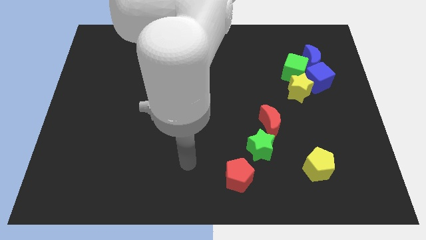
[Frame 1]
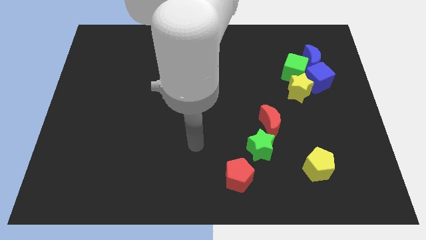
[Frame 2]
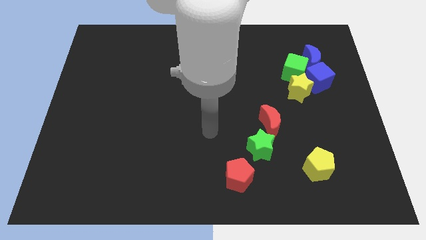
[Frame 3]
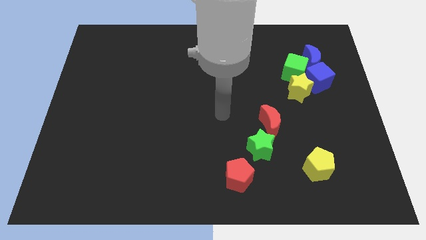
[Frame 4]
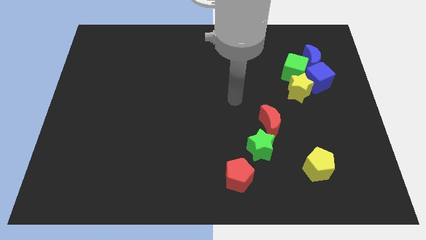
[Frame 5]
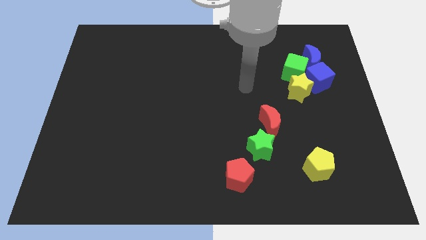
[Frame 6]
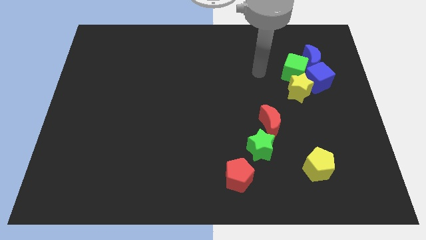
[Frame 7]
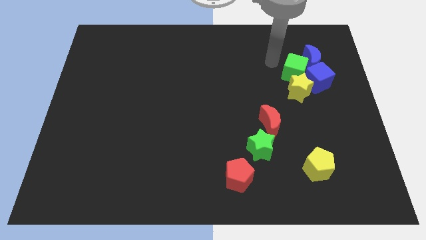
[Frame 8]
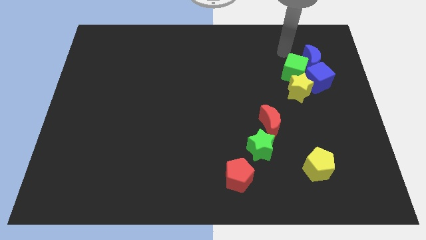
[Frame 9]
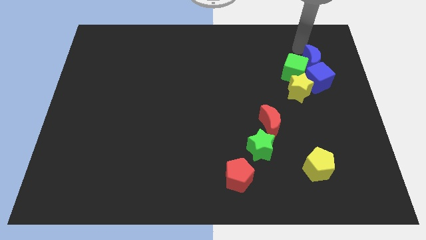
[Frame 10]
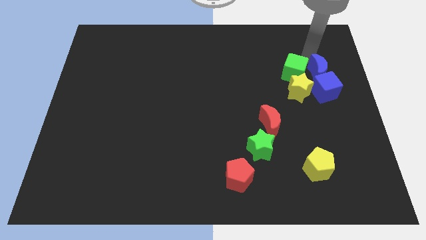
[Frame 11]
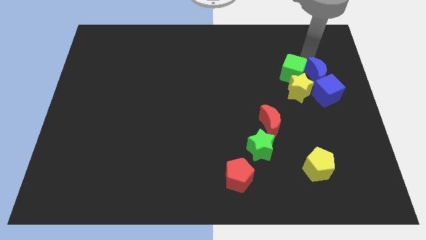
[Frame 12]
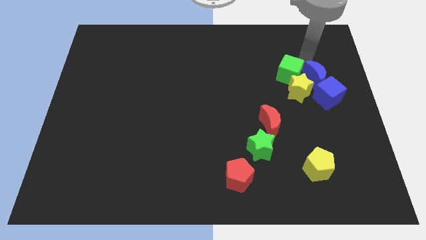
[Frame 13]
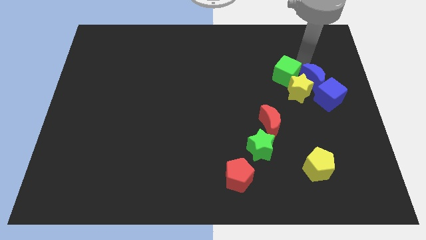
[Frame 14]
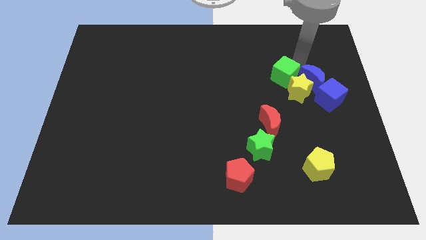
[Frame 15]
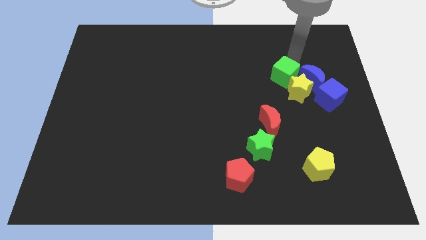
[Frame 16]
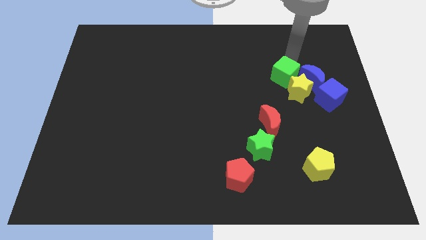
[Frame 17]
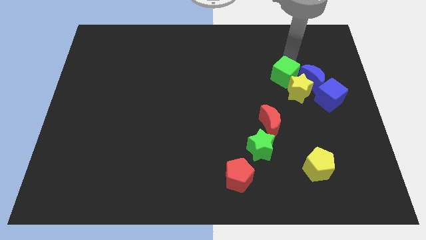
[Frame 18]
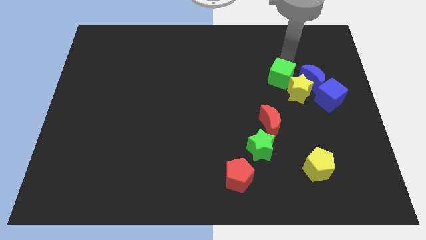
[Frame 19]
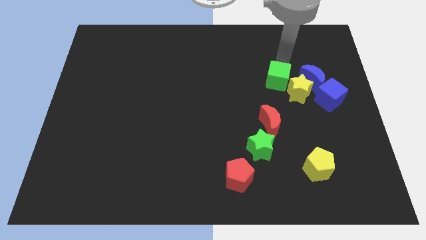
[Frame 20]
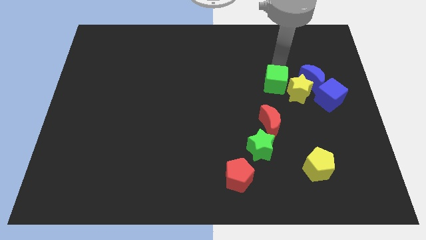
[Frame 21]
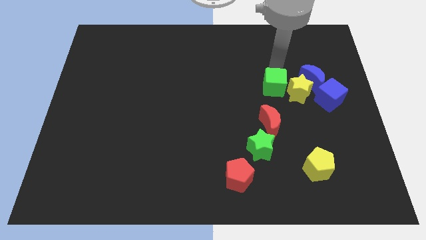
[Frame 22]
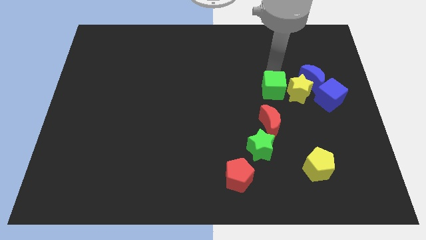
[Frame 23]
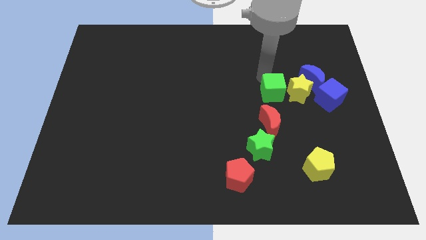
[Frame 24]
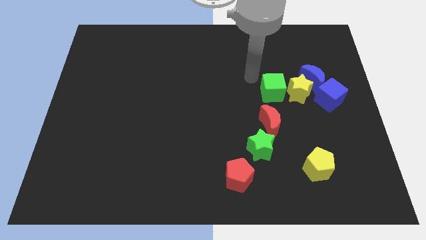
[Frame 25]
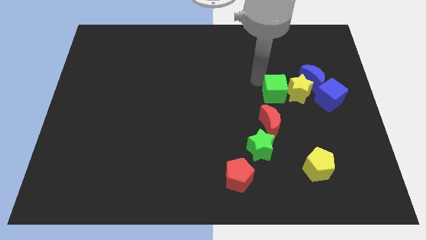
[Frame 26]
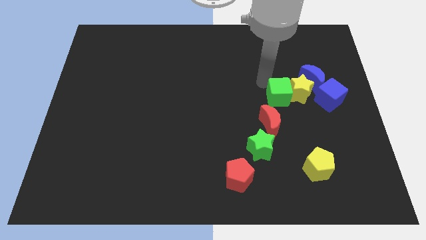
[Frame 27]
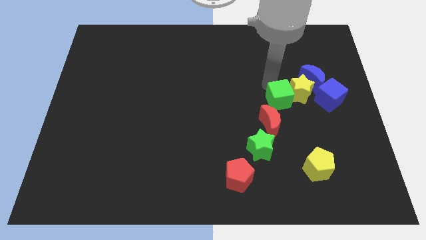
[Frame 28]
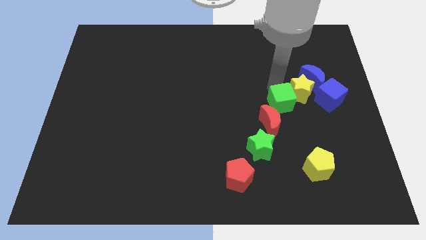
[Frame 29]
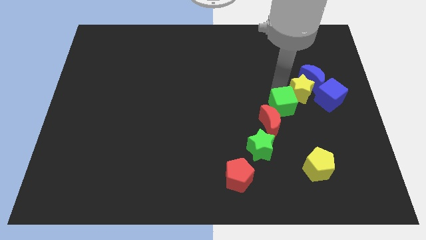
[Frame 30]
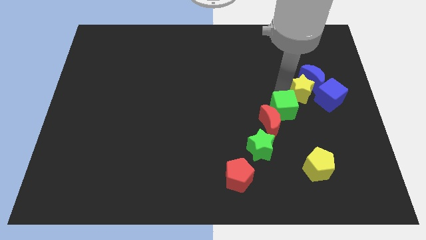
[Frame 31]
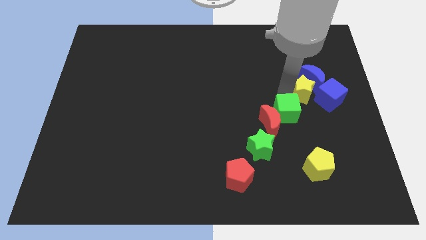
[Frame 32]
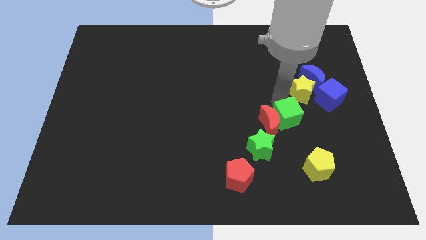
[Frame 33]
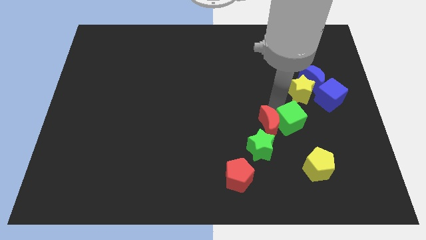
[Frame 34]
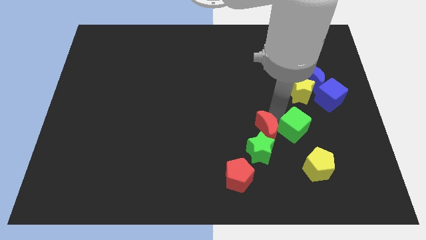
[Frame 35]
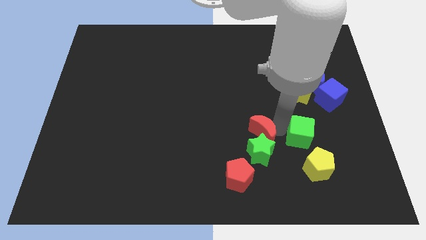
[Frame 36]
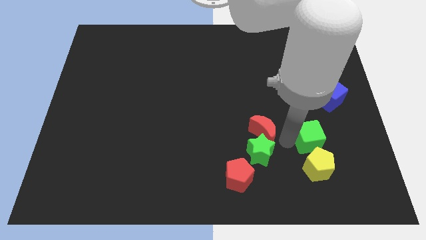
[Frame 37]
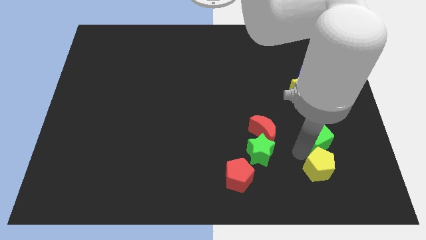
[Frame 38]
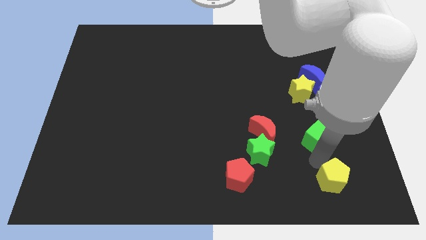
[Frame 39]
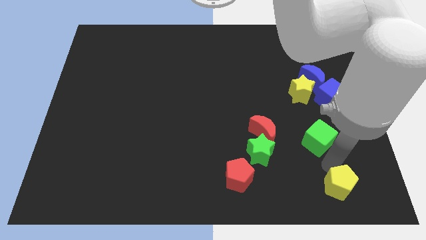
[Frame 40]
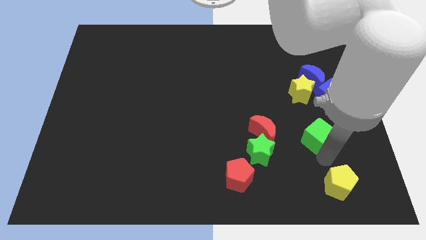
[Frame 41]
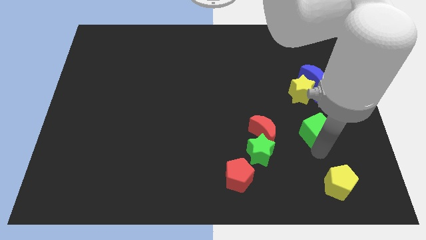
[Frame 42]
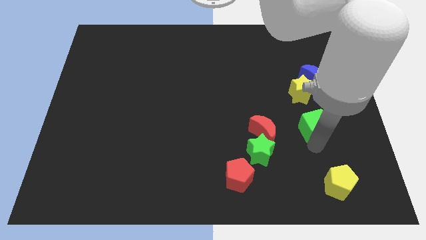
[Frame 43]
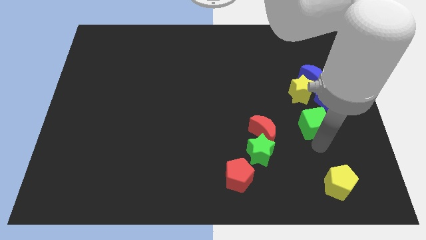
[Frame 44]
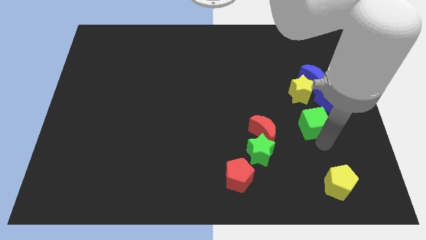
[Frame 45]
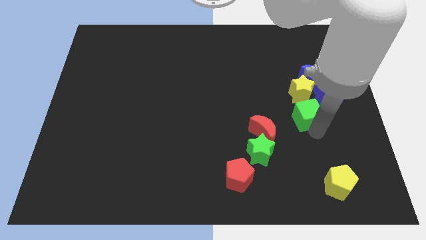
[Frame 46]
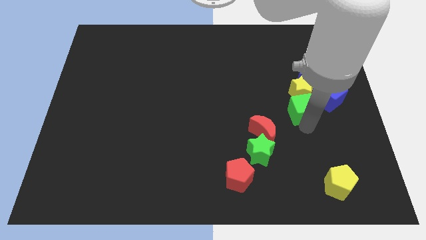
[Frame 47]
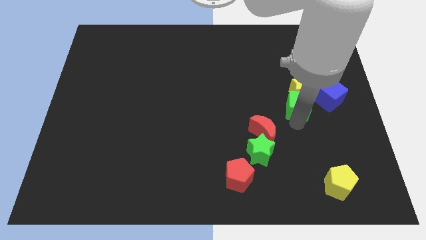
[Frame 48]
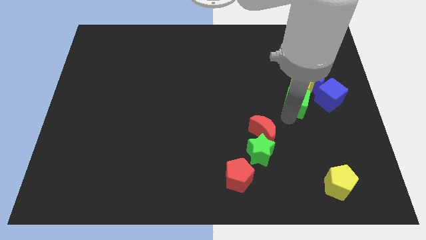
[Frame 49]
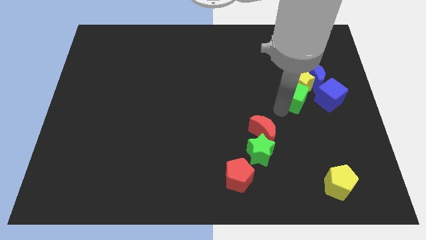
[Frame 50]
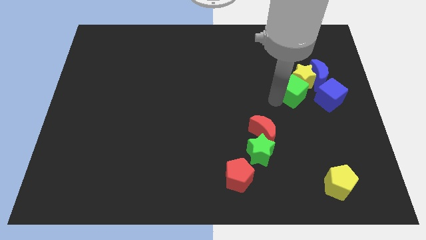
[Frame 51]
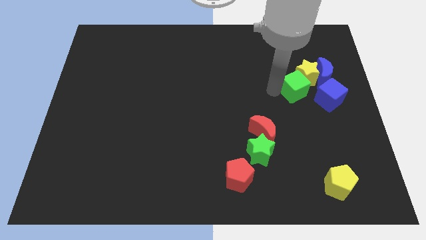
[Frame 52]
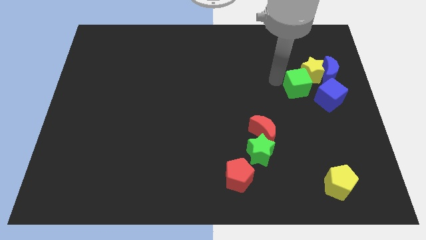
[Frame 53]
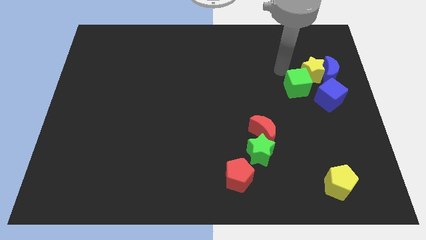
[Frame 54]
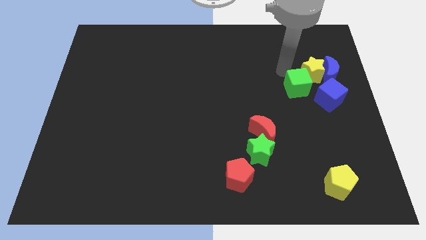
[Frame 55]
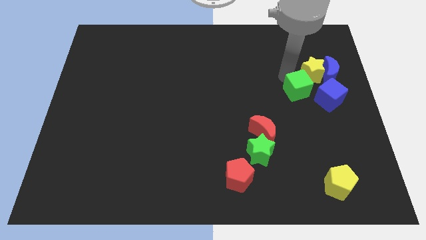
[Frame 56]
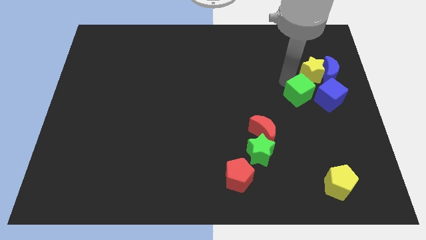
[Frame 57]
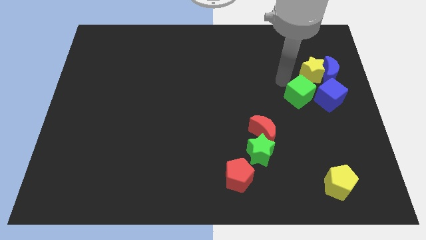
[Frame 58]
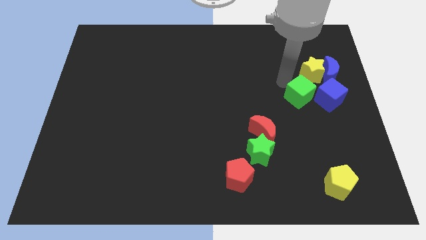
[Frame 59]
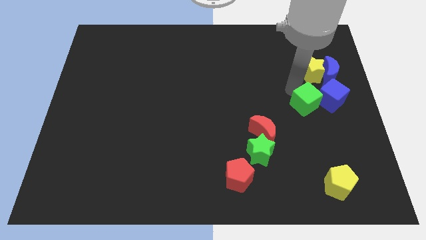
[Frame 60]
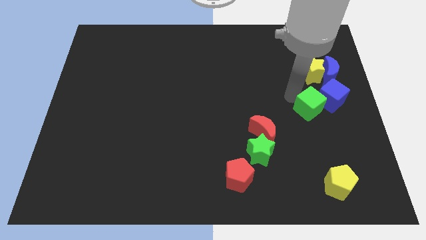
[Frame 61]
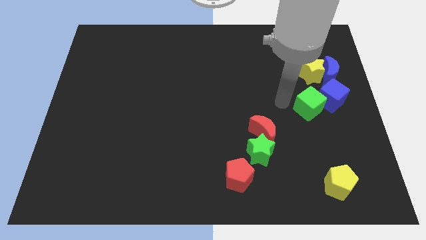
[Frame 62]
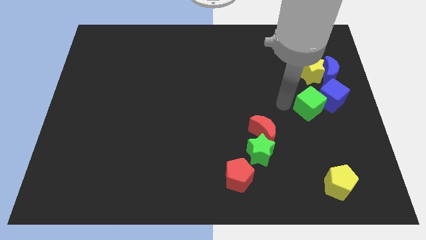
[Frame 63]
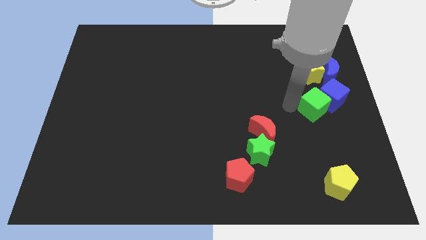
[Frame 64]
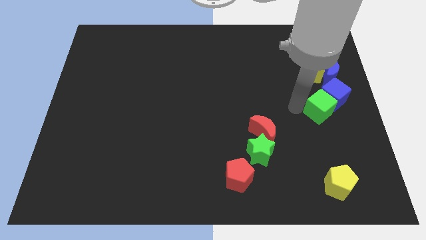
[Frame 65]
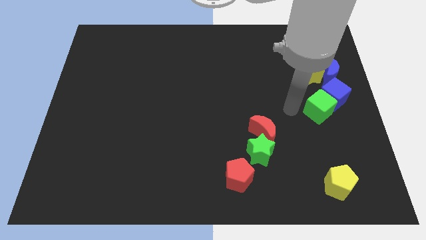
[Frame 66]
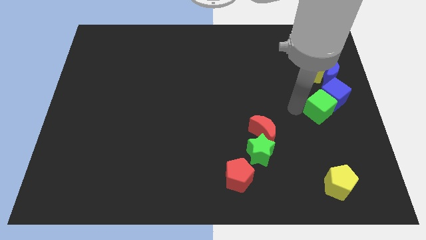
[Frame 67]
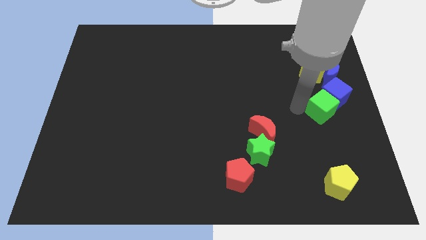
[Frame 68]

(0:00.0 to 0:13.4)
put the green cube to the right side

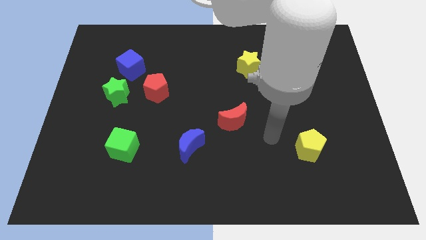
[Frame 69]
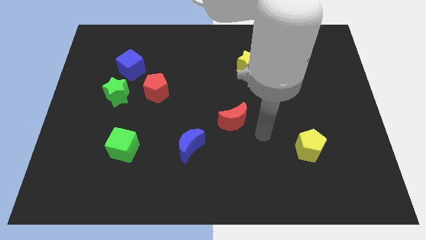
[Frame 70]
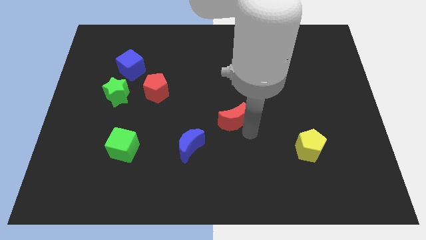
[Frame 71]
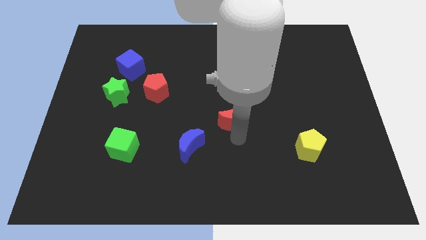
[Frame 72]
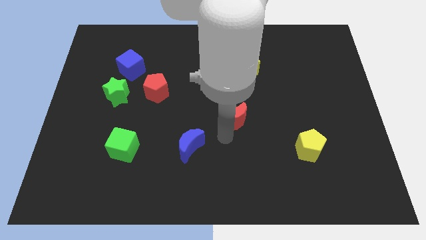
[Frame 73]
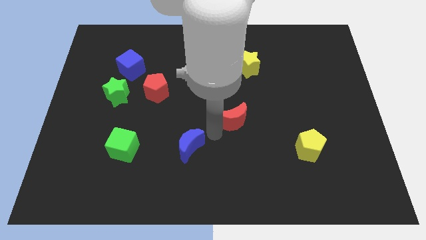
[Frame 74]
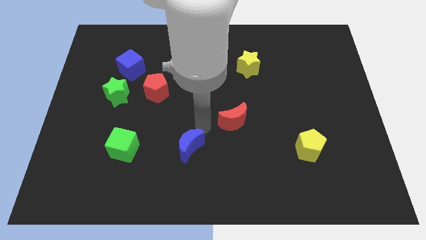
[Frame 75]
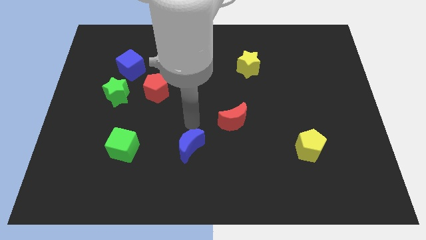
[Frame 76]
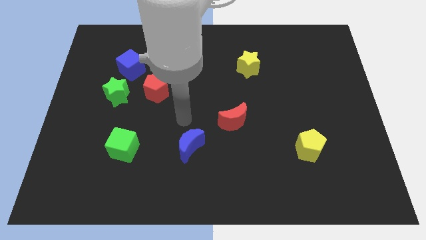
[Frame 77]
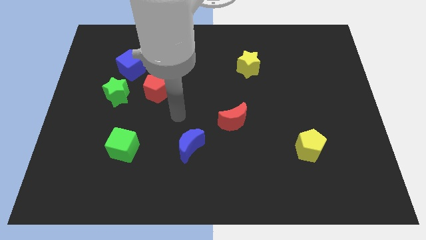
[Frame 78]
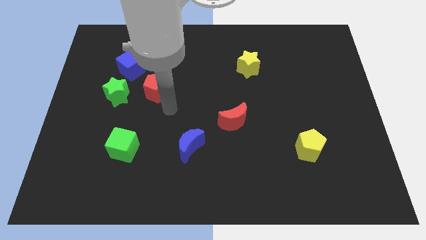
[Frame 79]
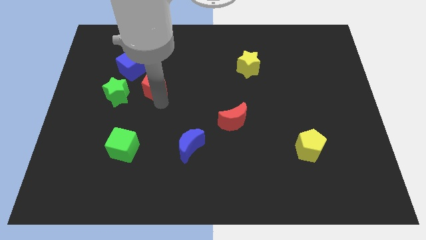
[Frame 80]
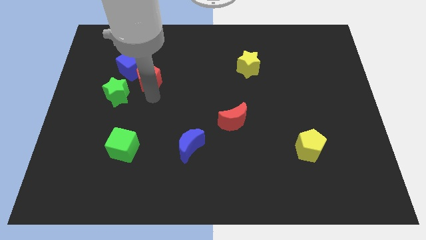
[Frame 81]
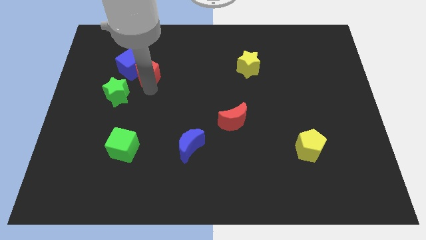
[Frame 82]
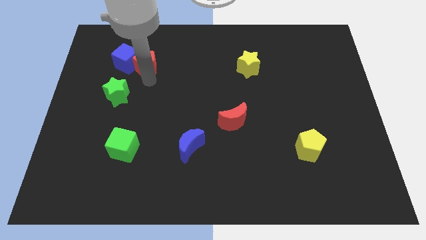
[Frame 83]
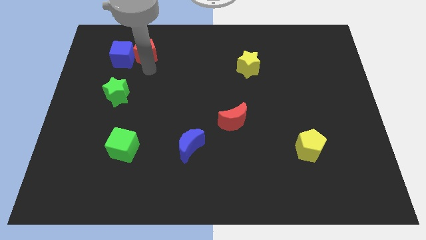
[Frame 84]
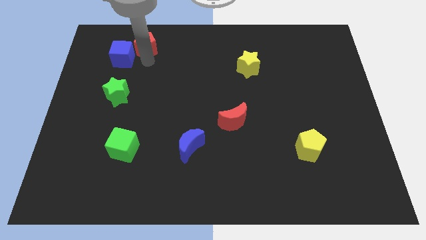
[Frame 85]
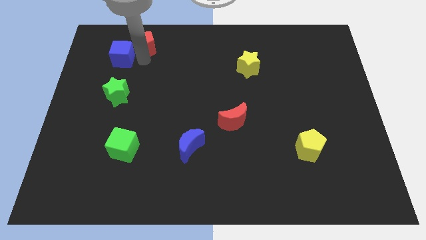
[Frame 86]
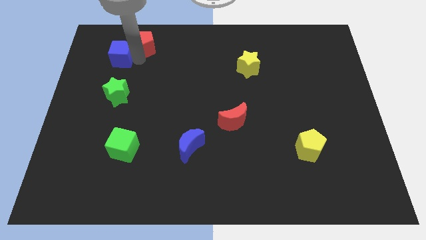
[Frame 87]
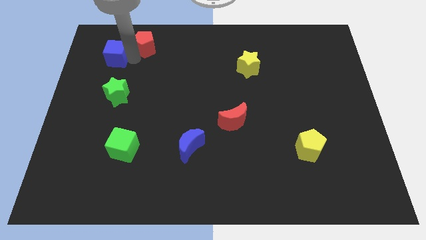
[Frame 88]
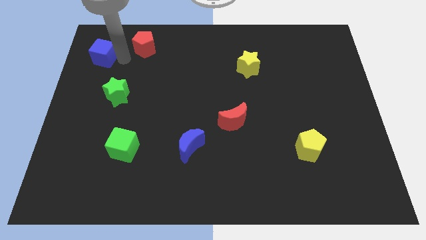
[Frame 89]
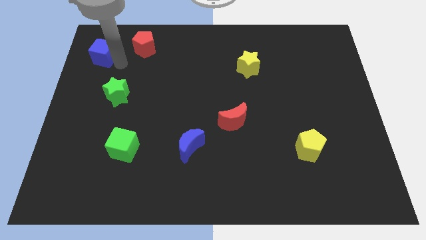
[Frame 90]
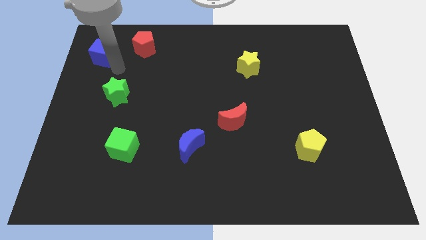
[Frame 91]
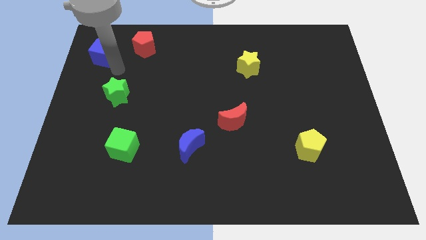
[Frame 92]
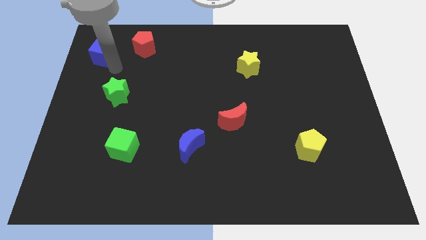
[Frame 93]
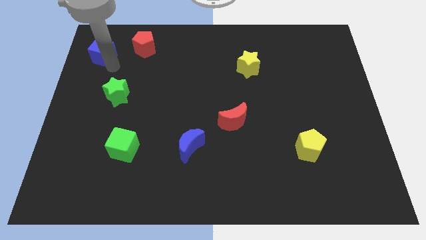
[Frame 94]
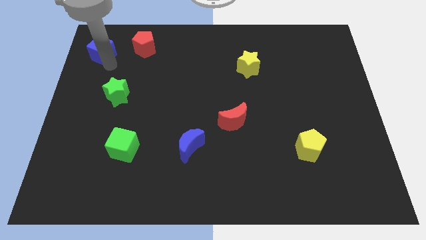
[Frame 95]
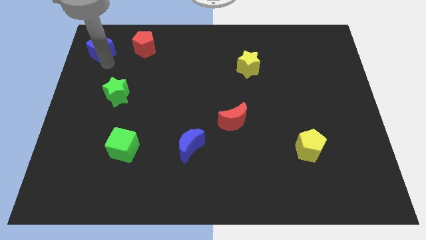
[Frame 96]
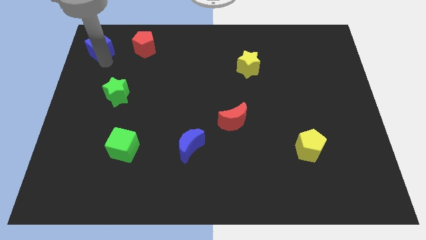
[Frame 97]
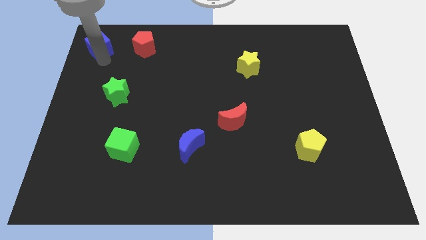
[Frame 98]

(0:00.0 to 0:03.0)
move the blue cube to the top left
